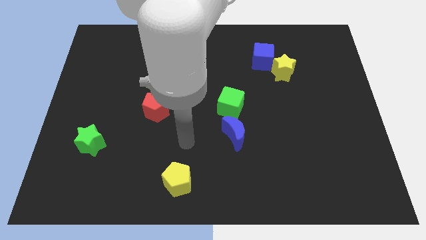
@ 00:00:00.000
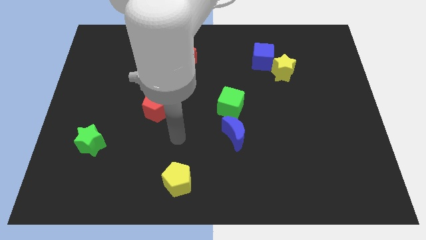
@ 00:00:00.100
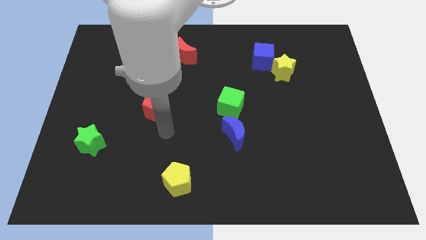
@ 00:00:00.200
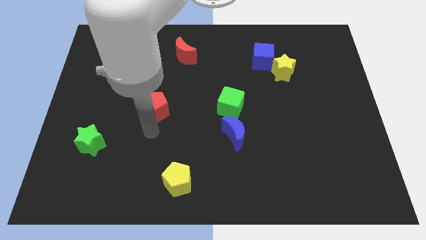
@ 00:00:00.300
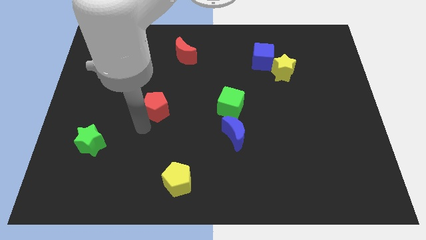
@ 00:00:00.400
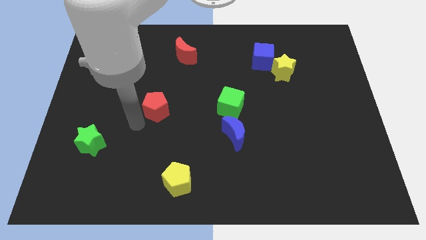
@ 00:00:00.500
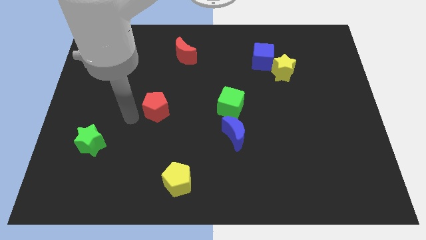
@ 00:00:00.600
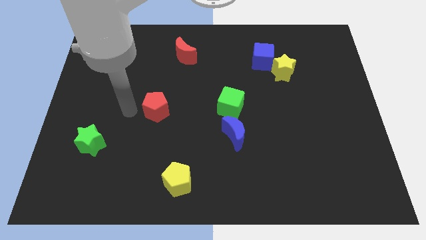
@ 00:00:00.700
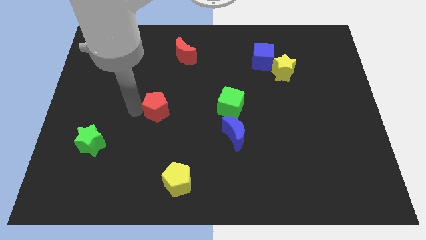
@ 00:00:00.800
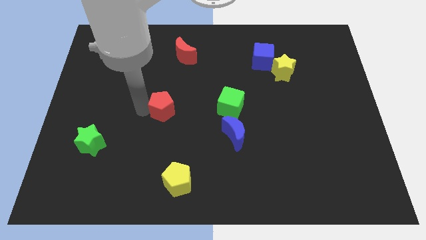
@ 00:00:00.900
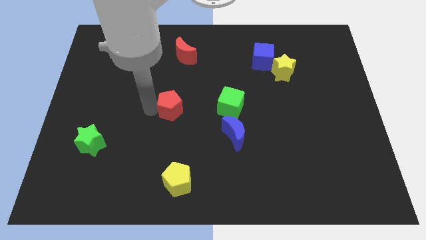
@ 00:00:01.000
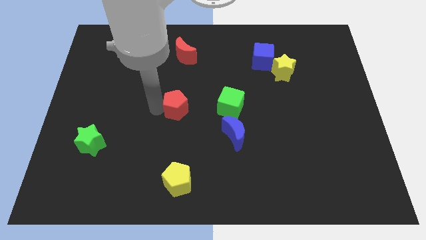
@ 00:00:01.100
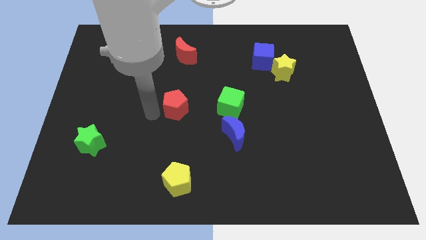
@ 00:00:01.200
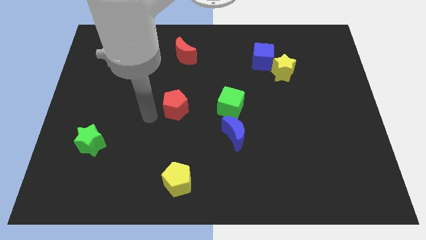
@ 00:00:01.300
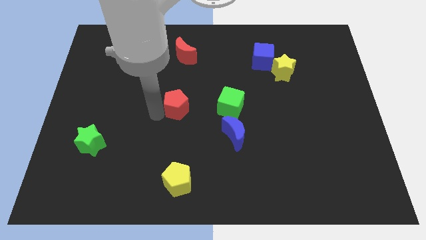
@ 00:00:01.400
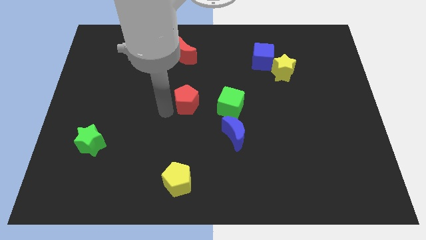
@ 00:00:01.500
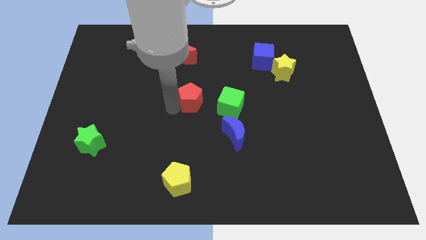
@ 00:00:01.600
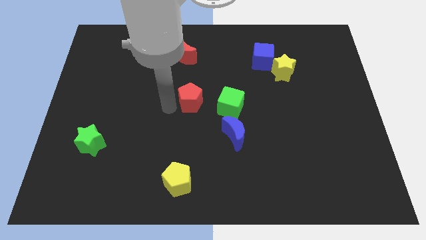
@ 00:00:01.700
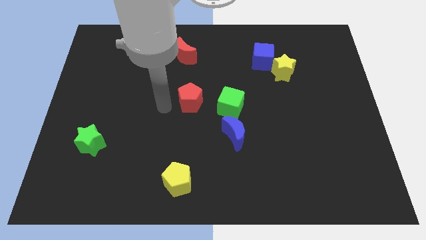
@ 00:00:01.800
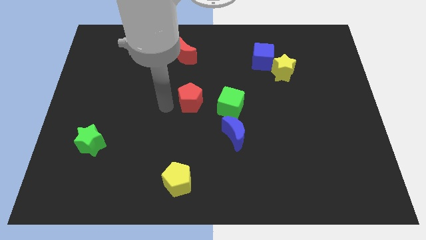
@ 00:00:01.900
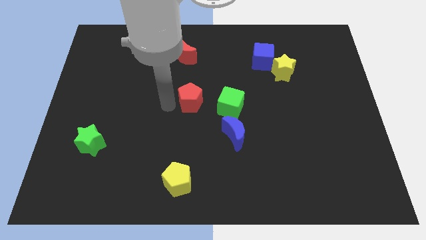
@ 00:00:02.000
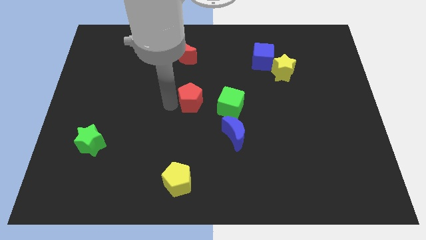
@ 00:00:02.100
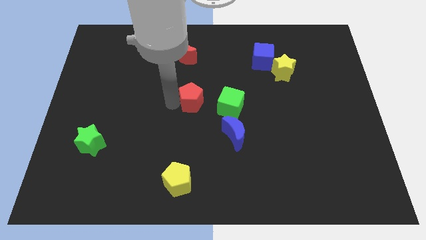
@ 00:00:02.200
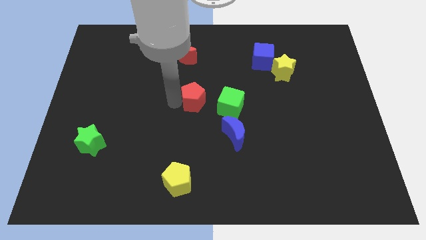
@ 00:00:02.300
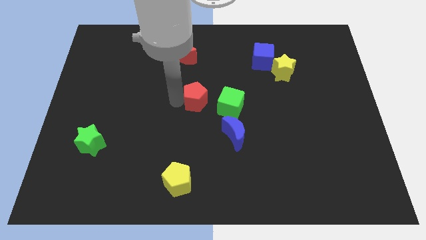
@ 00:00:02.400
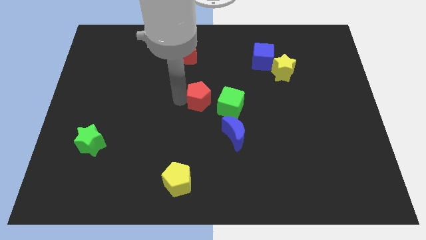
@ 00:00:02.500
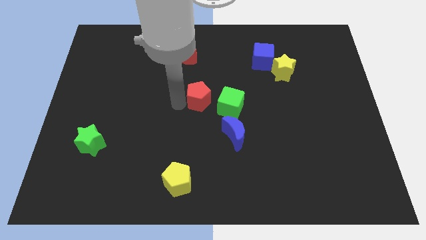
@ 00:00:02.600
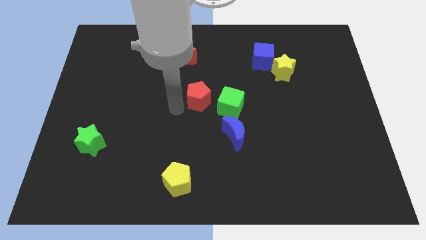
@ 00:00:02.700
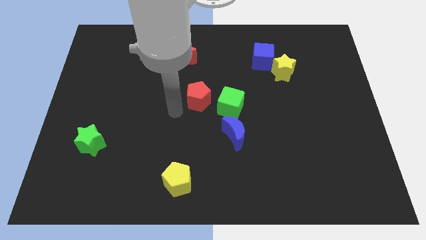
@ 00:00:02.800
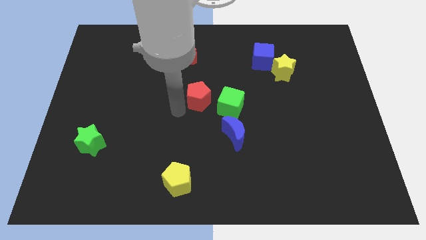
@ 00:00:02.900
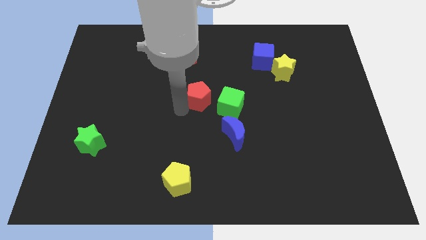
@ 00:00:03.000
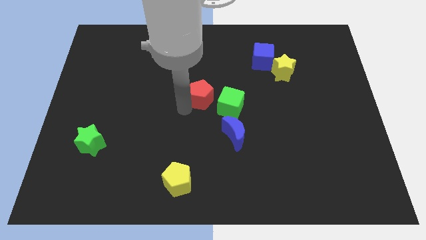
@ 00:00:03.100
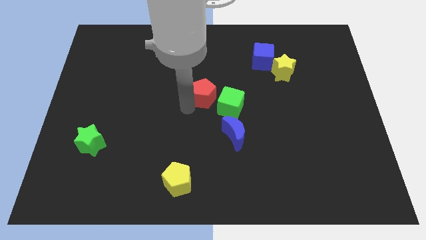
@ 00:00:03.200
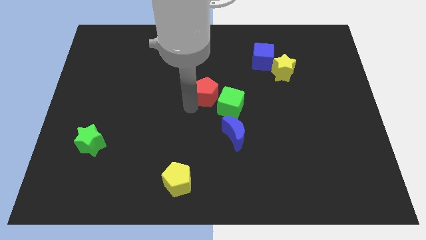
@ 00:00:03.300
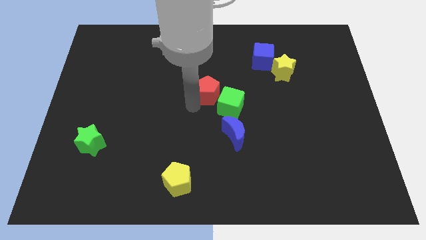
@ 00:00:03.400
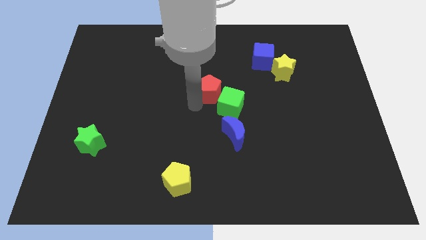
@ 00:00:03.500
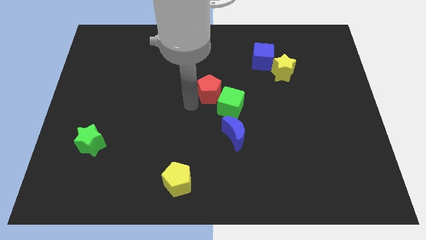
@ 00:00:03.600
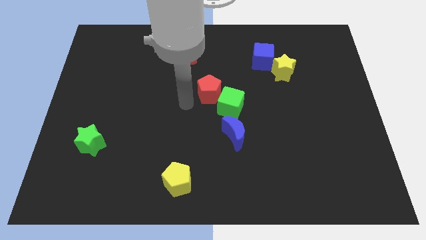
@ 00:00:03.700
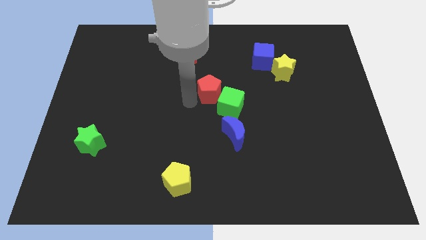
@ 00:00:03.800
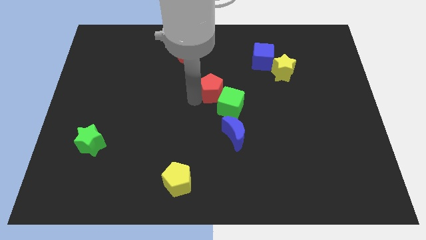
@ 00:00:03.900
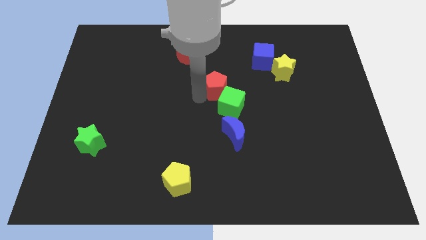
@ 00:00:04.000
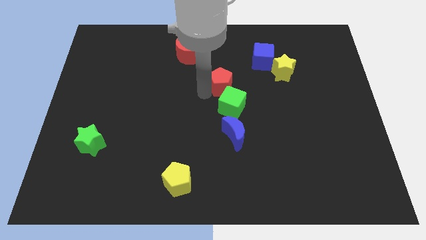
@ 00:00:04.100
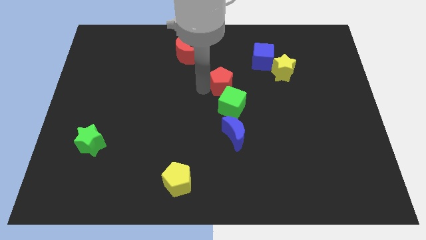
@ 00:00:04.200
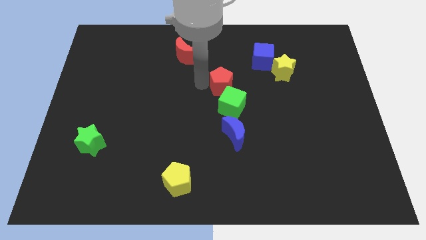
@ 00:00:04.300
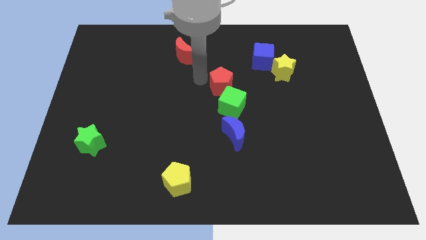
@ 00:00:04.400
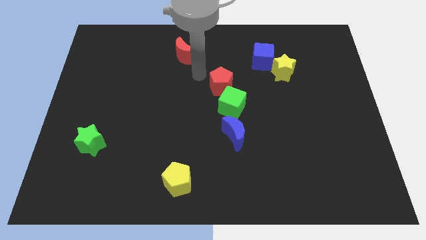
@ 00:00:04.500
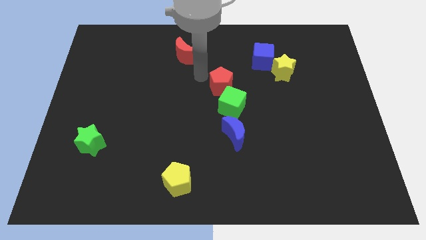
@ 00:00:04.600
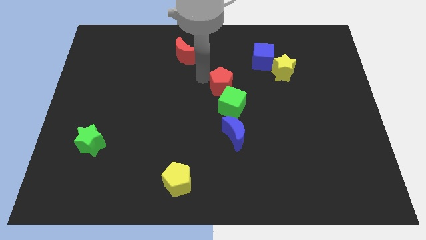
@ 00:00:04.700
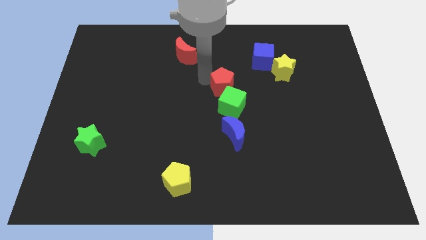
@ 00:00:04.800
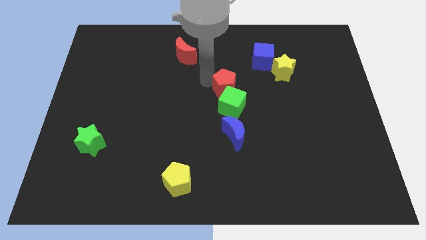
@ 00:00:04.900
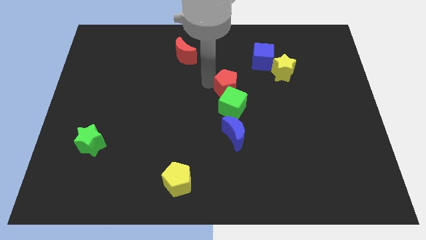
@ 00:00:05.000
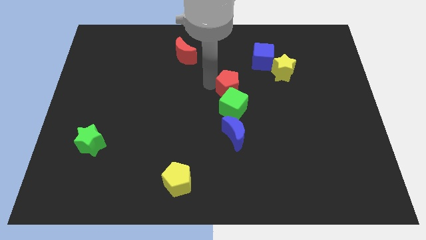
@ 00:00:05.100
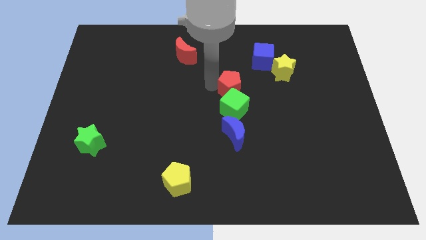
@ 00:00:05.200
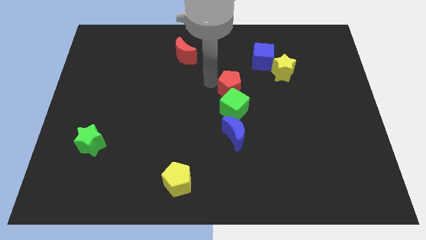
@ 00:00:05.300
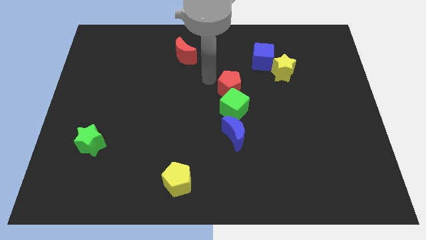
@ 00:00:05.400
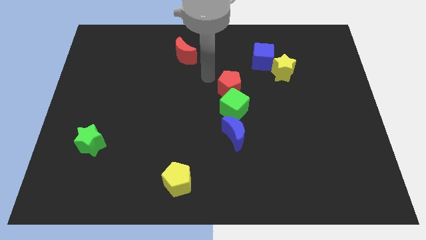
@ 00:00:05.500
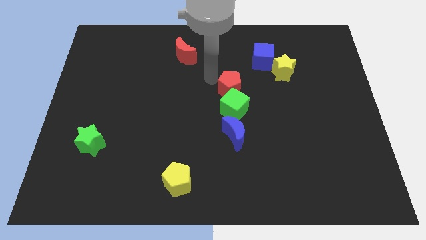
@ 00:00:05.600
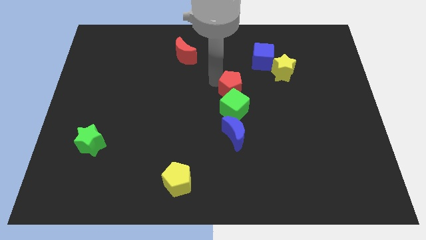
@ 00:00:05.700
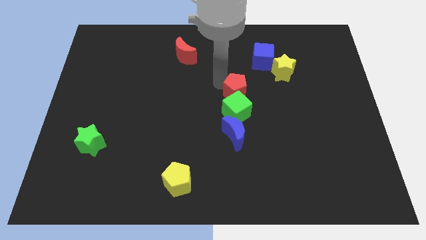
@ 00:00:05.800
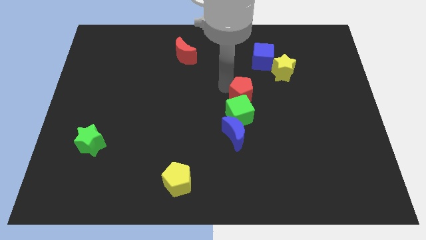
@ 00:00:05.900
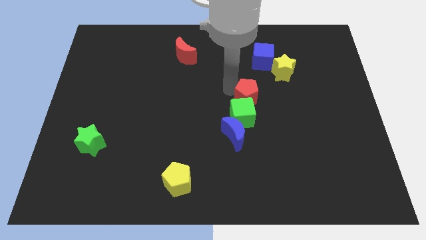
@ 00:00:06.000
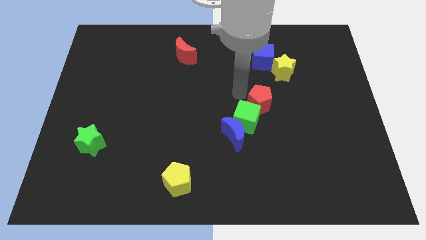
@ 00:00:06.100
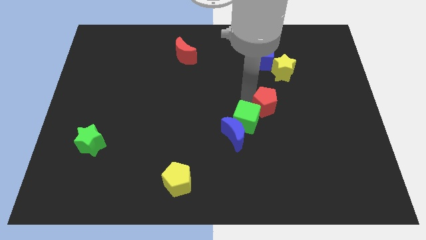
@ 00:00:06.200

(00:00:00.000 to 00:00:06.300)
put the red pentagon just right of the green cube

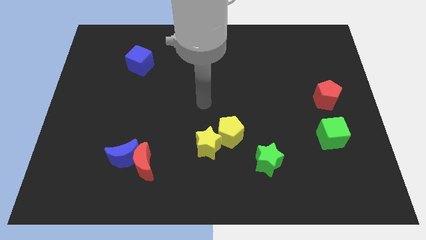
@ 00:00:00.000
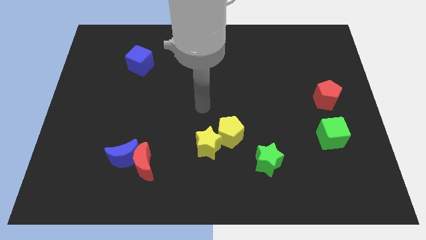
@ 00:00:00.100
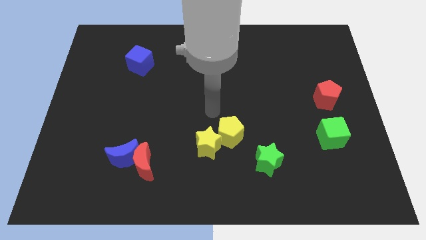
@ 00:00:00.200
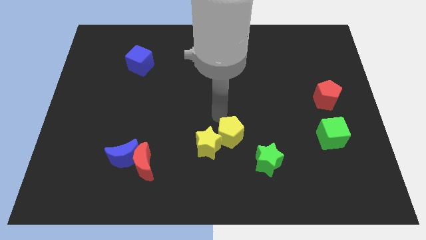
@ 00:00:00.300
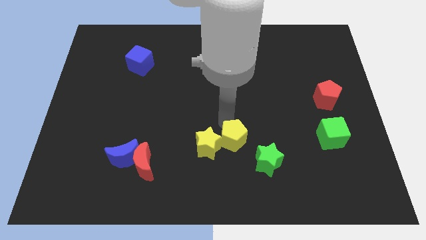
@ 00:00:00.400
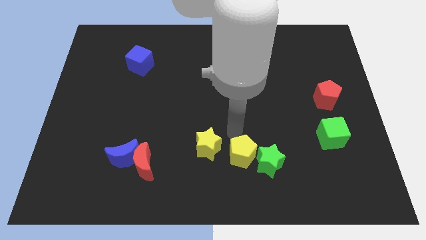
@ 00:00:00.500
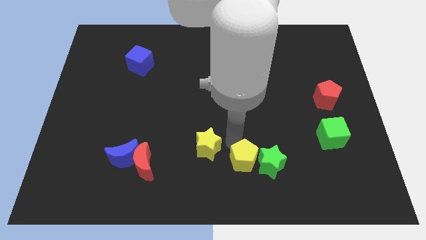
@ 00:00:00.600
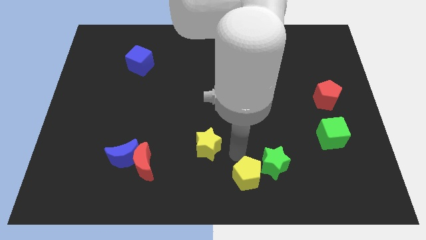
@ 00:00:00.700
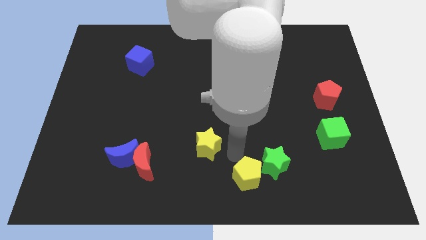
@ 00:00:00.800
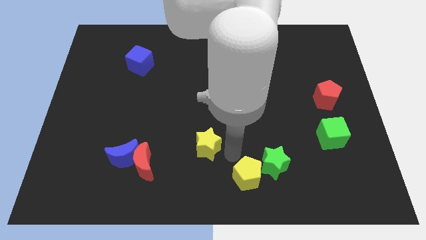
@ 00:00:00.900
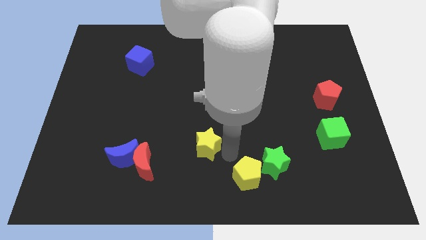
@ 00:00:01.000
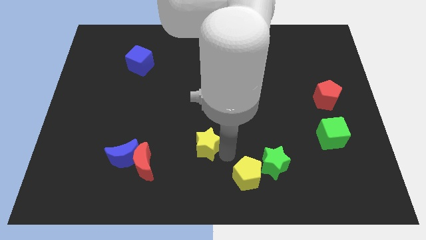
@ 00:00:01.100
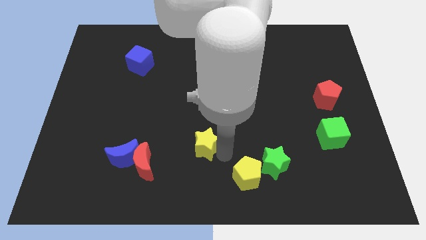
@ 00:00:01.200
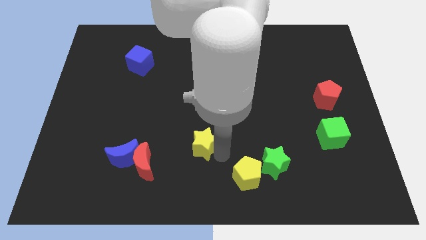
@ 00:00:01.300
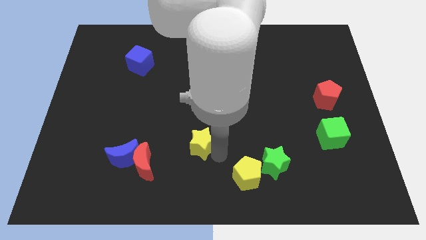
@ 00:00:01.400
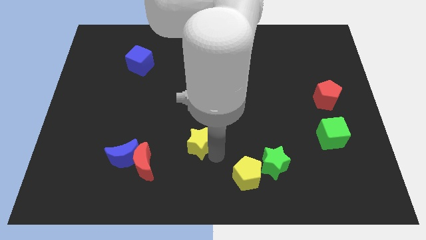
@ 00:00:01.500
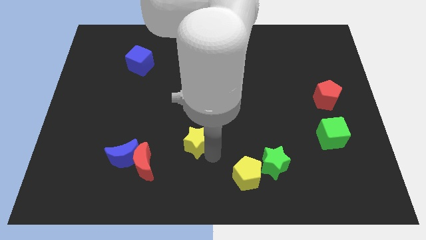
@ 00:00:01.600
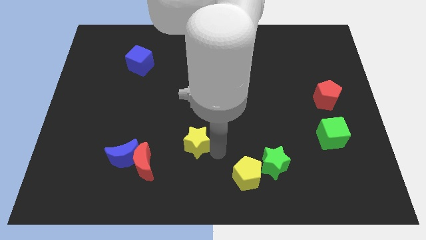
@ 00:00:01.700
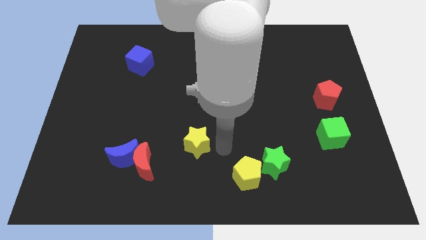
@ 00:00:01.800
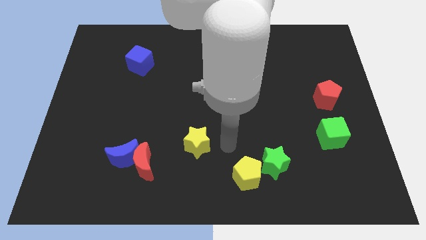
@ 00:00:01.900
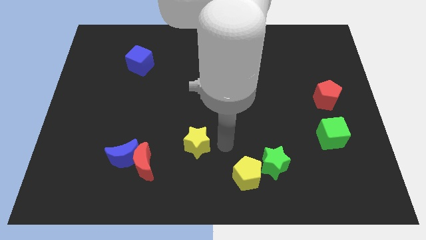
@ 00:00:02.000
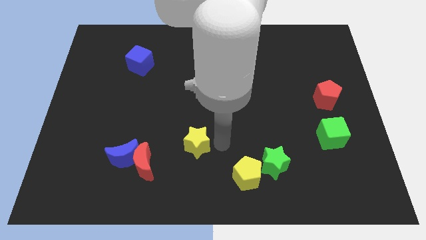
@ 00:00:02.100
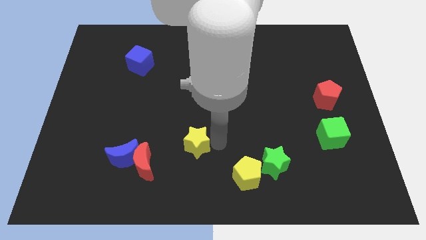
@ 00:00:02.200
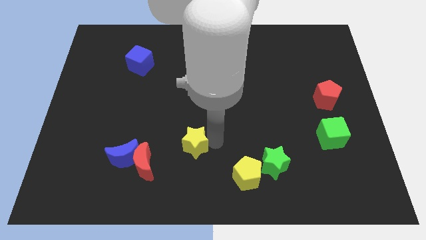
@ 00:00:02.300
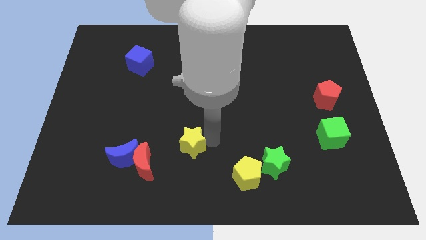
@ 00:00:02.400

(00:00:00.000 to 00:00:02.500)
put the yellow star to the top right of the red moon
